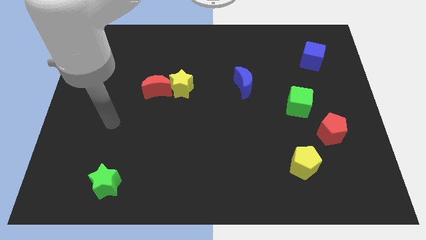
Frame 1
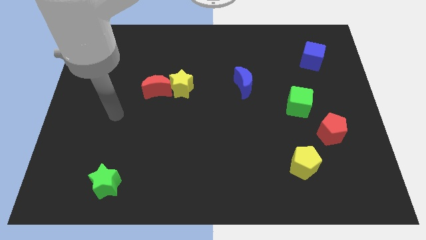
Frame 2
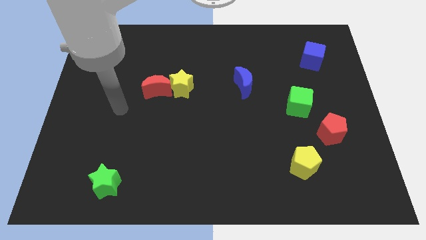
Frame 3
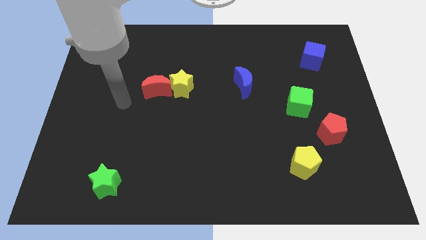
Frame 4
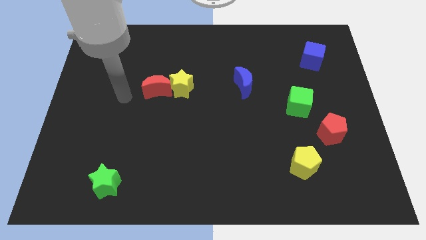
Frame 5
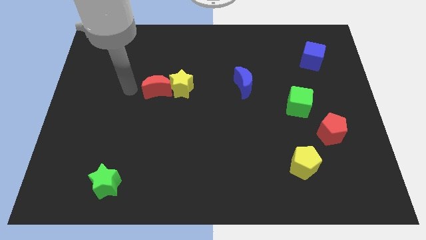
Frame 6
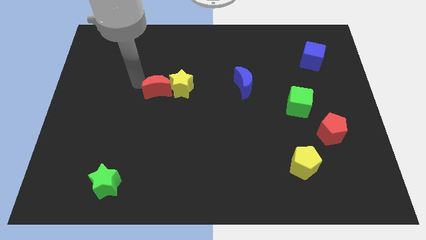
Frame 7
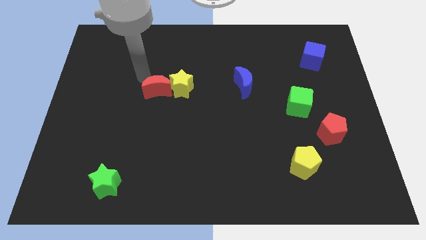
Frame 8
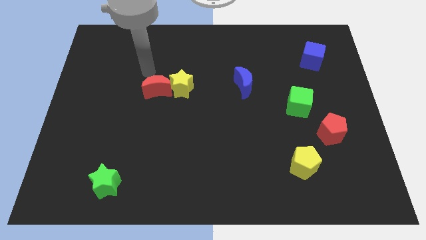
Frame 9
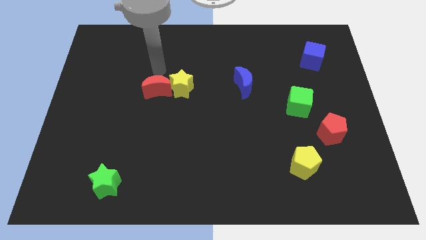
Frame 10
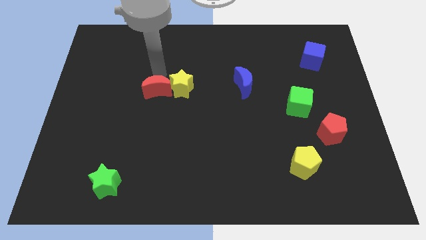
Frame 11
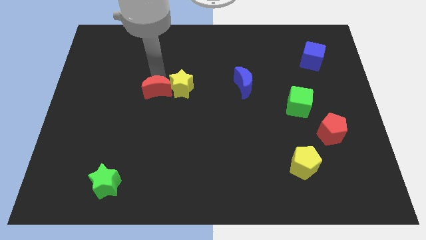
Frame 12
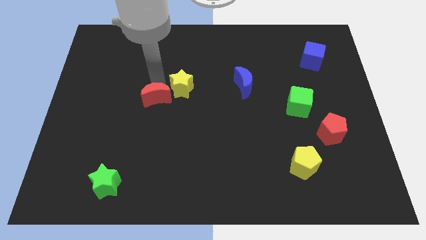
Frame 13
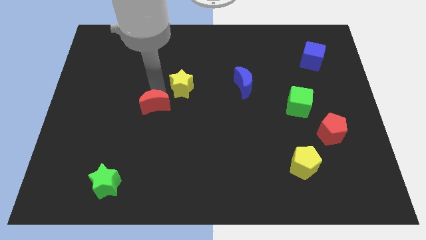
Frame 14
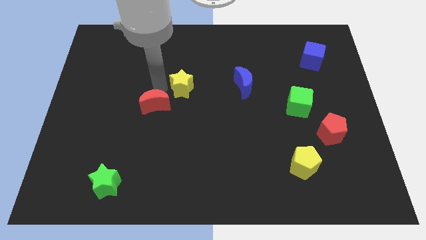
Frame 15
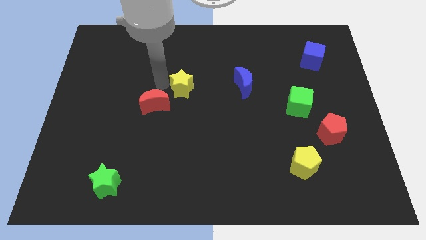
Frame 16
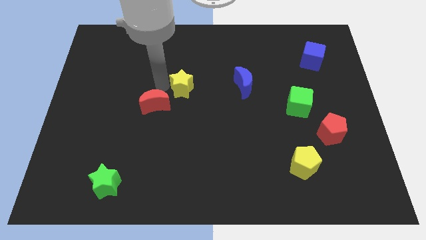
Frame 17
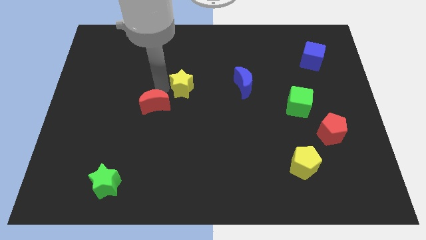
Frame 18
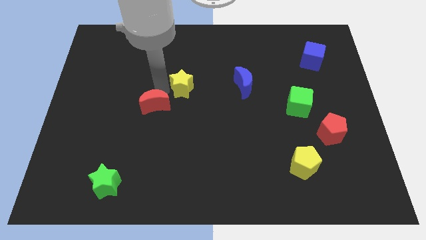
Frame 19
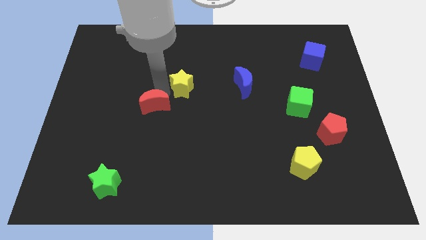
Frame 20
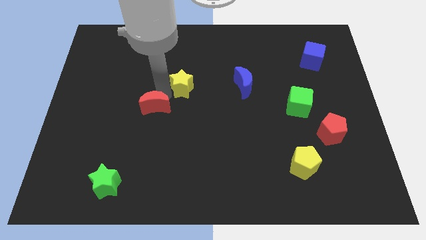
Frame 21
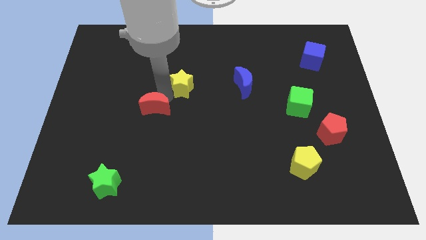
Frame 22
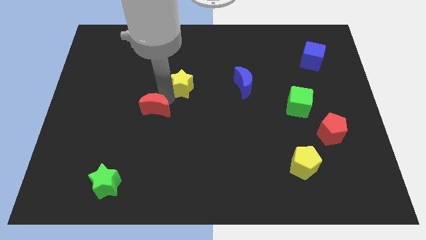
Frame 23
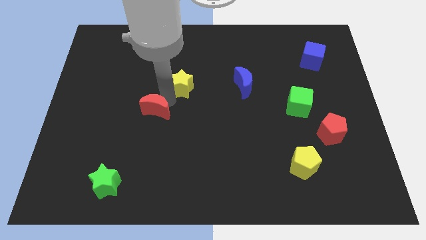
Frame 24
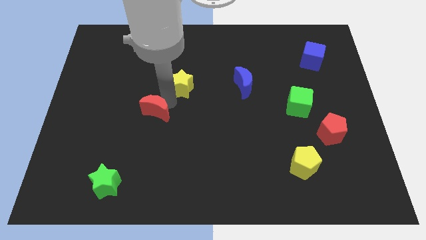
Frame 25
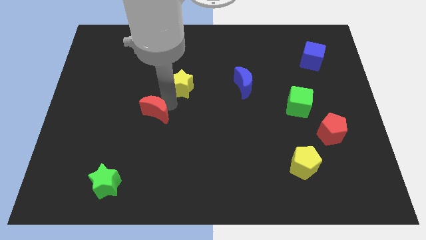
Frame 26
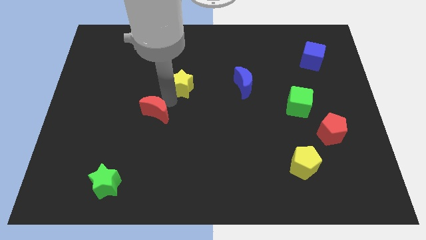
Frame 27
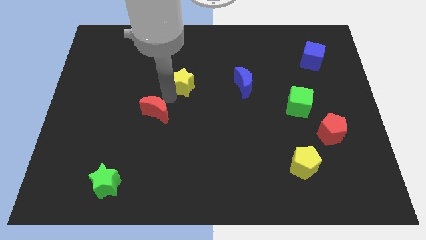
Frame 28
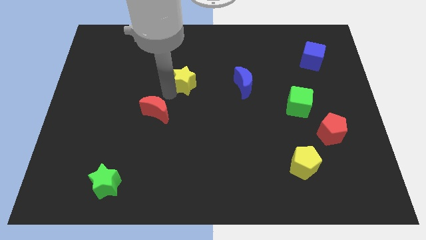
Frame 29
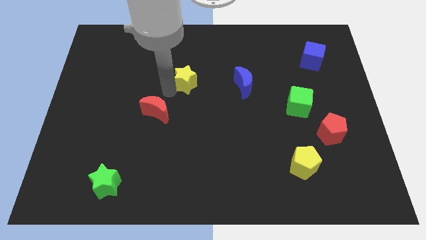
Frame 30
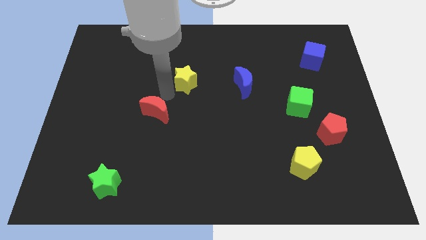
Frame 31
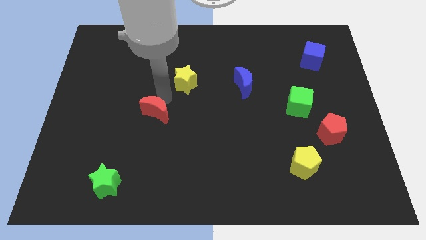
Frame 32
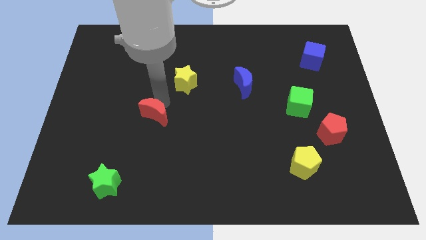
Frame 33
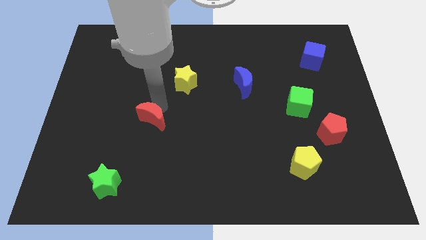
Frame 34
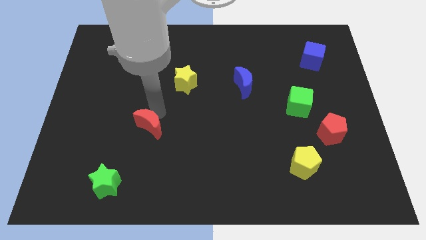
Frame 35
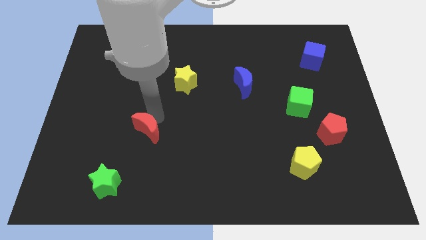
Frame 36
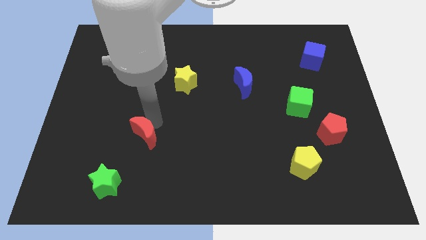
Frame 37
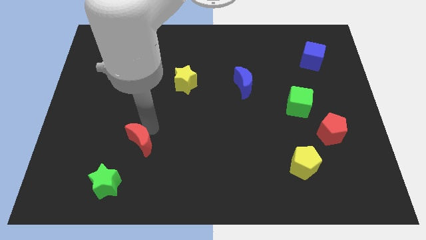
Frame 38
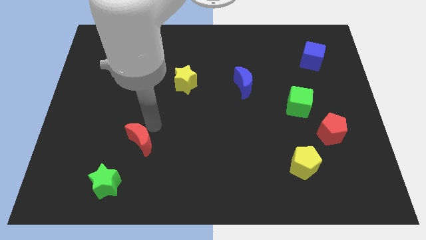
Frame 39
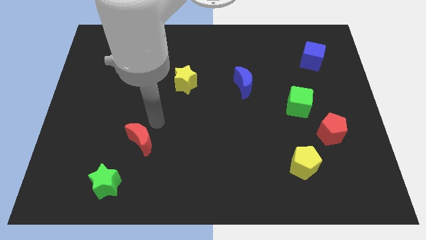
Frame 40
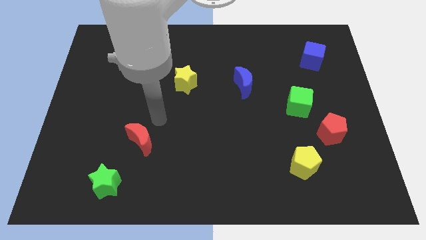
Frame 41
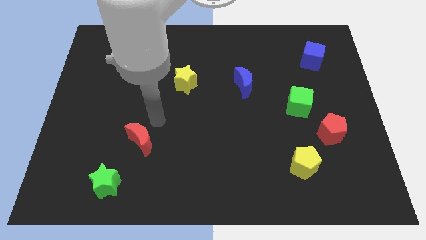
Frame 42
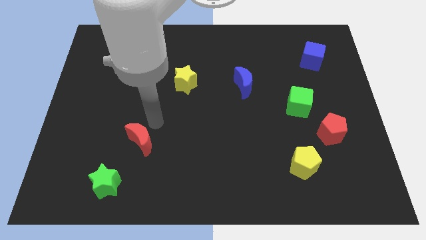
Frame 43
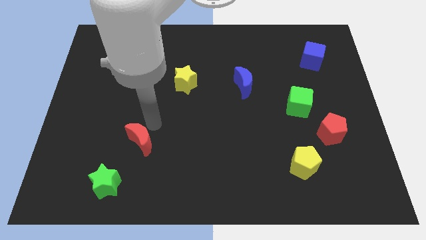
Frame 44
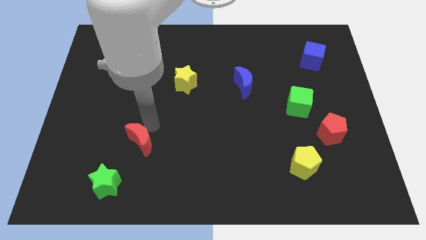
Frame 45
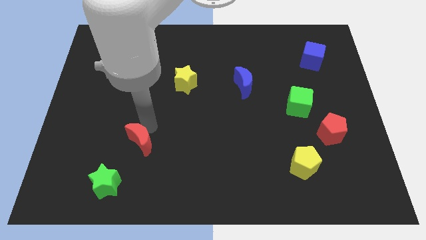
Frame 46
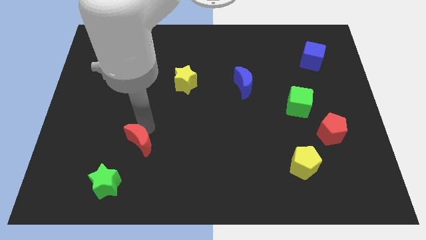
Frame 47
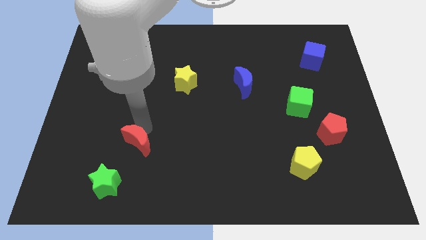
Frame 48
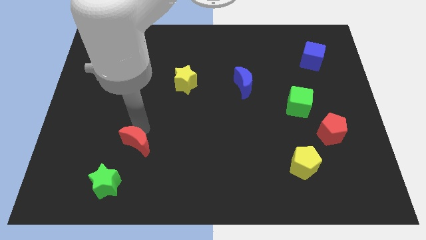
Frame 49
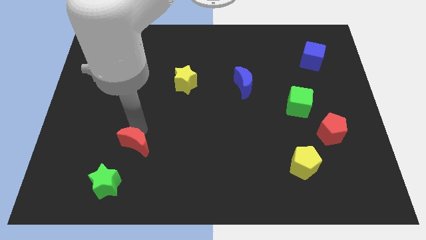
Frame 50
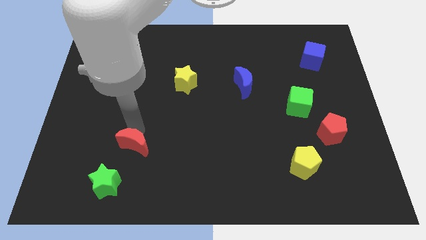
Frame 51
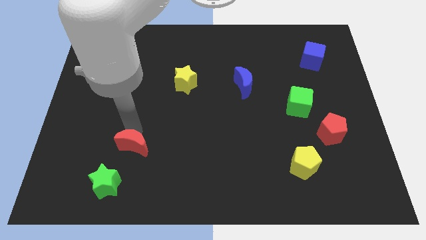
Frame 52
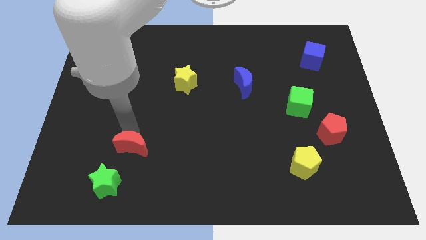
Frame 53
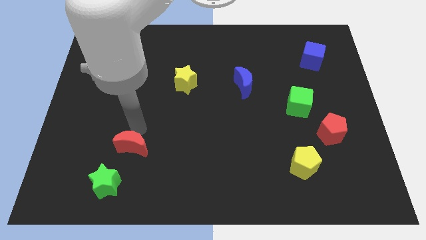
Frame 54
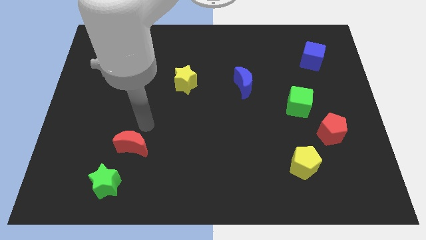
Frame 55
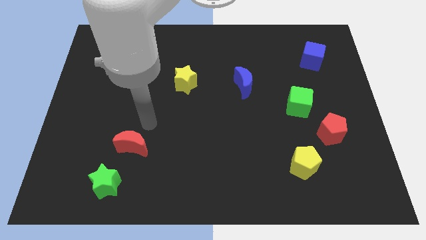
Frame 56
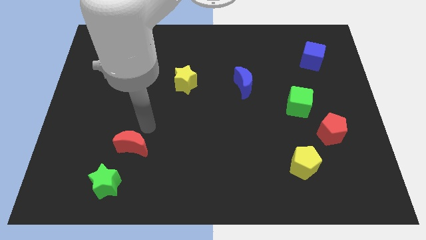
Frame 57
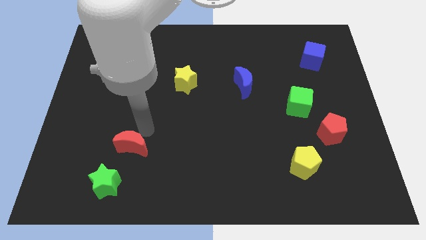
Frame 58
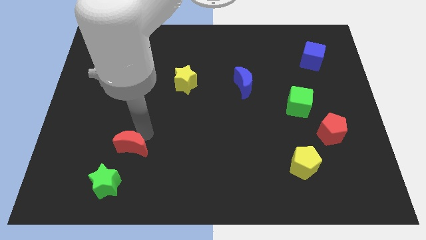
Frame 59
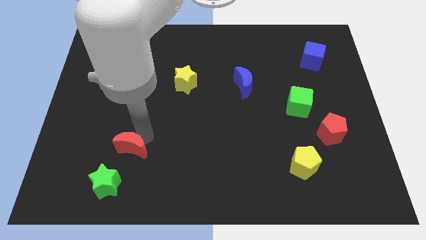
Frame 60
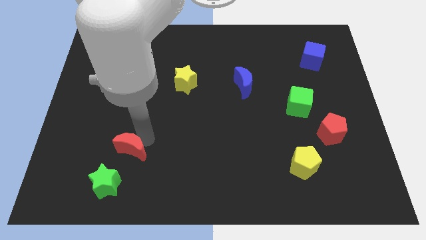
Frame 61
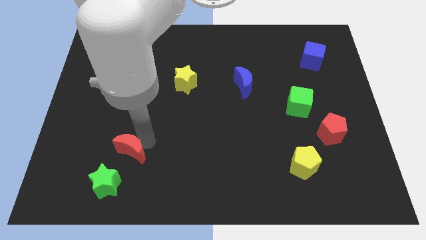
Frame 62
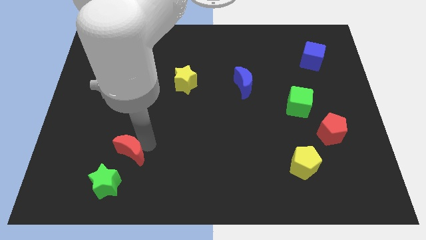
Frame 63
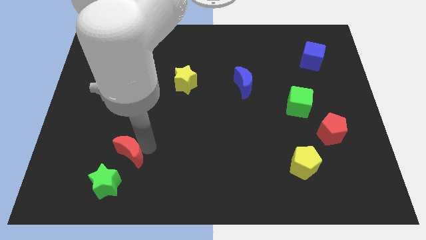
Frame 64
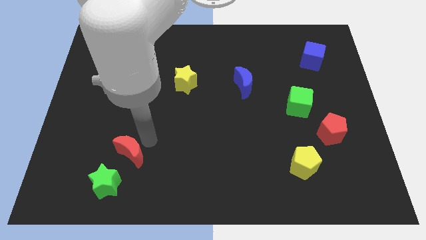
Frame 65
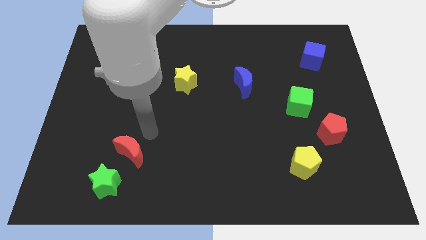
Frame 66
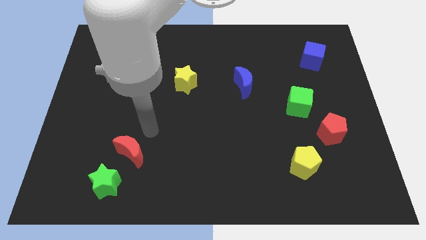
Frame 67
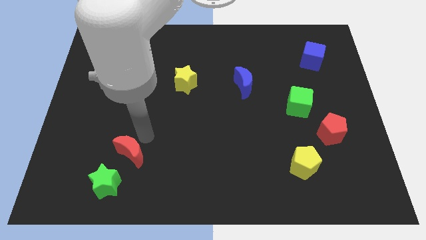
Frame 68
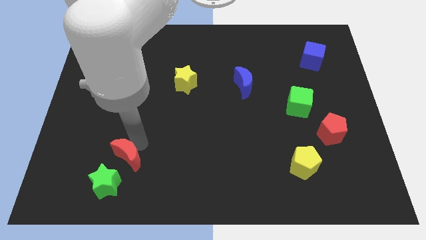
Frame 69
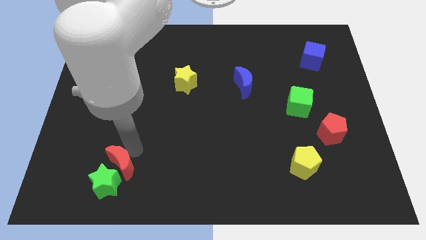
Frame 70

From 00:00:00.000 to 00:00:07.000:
put the red moon to the green star

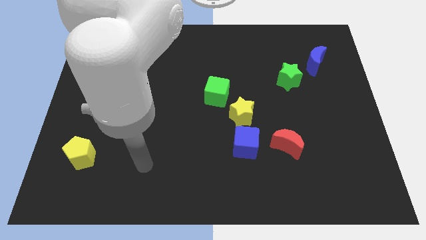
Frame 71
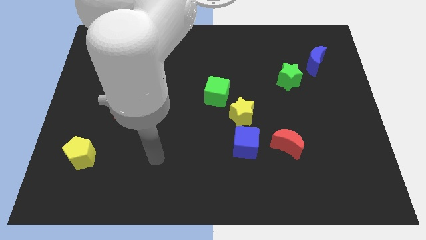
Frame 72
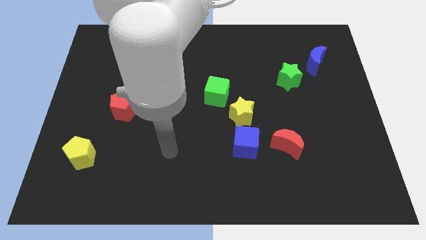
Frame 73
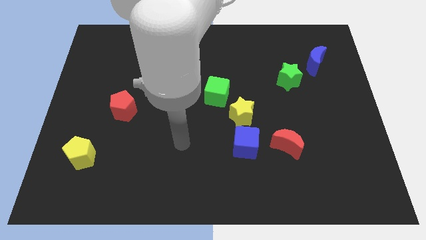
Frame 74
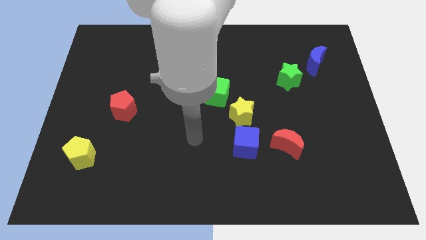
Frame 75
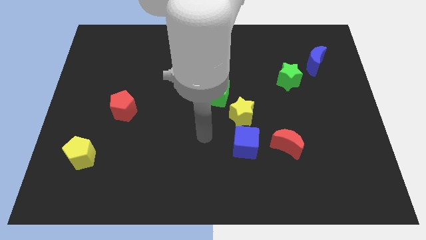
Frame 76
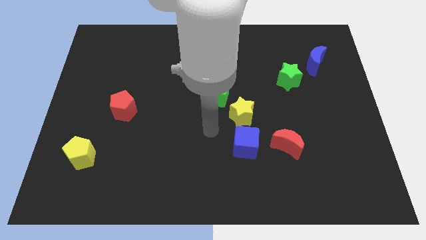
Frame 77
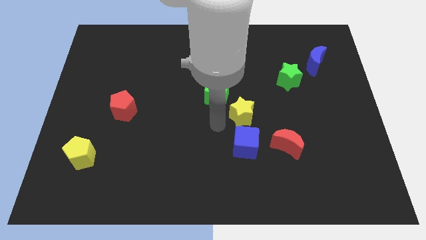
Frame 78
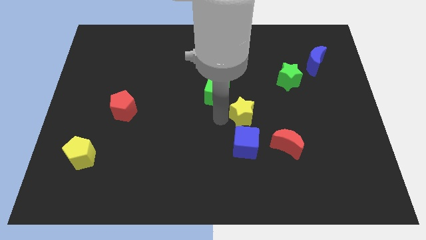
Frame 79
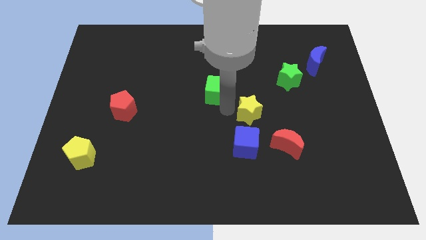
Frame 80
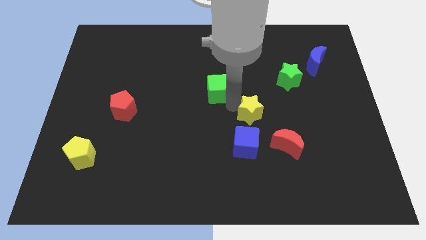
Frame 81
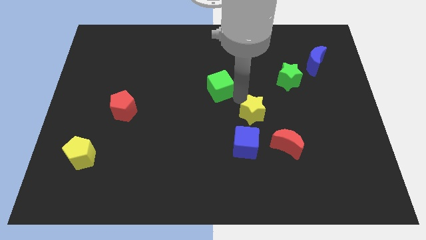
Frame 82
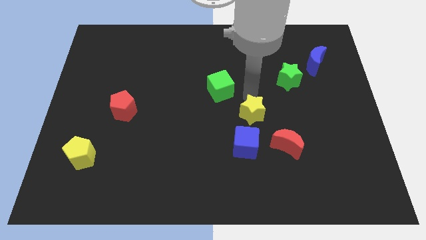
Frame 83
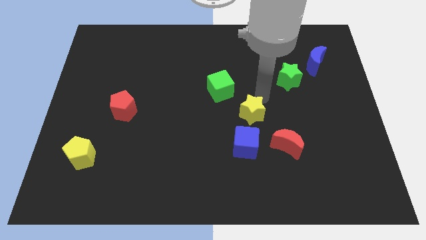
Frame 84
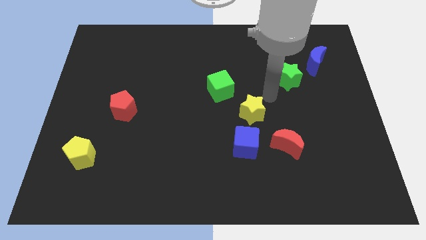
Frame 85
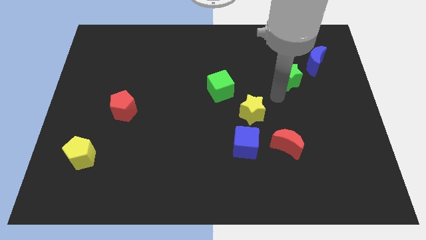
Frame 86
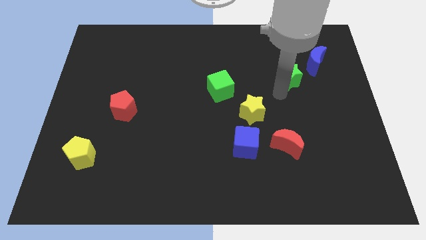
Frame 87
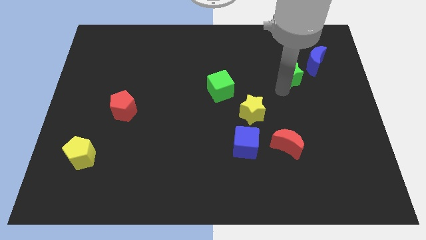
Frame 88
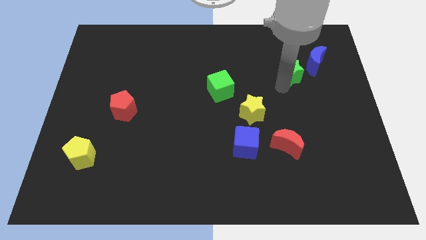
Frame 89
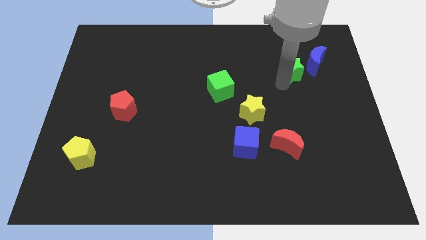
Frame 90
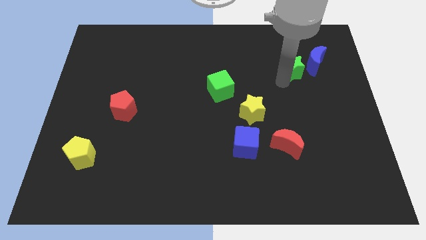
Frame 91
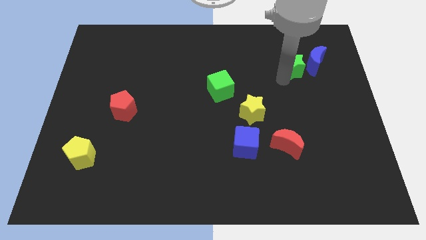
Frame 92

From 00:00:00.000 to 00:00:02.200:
put the green star close to the blue moon
